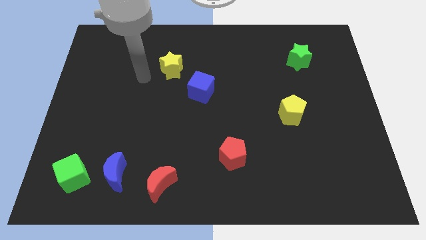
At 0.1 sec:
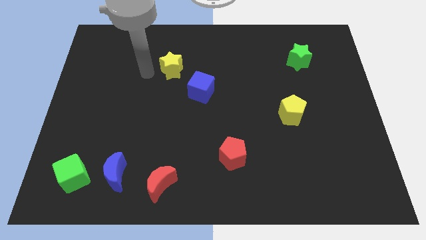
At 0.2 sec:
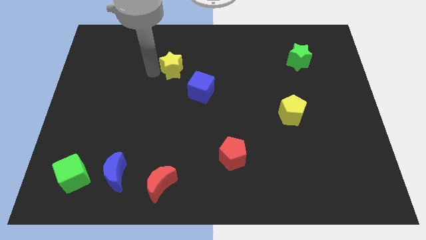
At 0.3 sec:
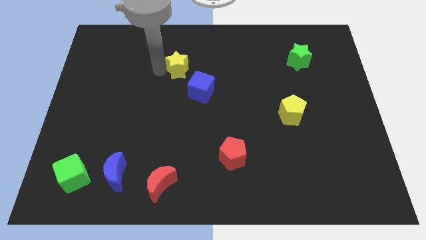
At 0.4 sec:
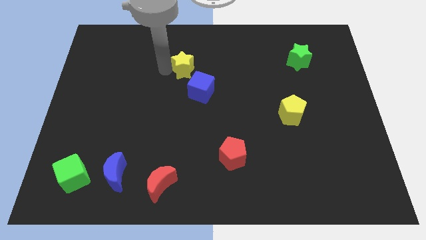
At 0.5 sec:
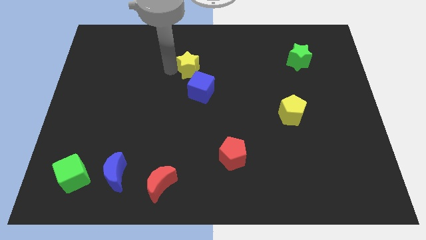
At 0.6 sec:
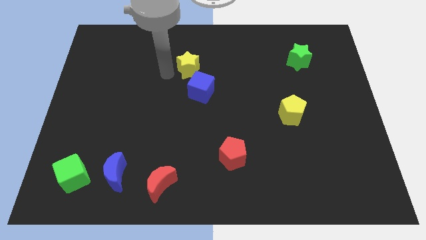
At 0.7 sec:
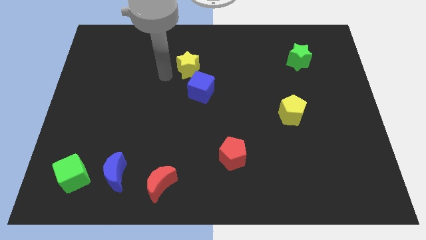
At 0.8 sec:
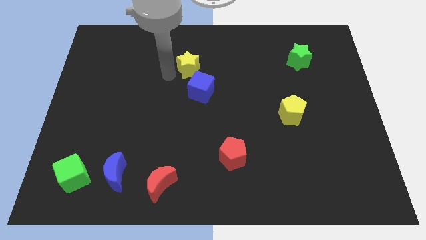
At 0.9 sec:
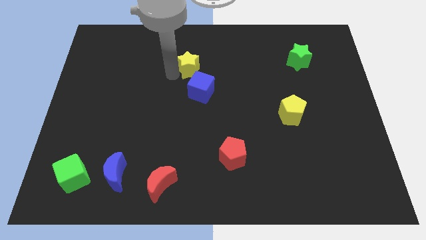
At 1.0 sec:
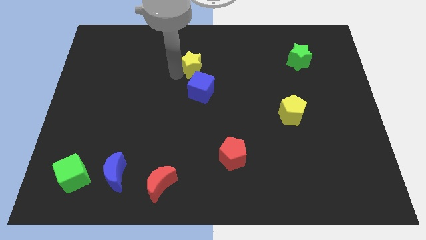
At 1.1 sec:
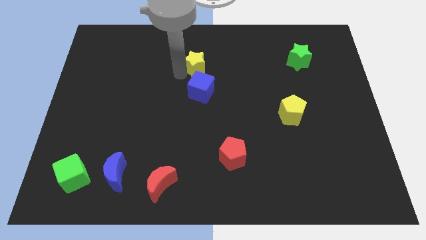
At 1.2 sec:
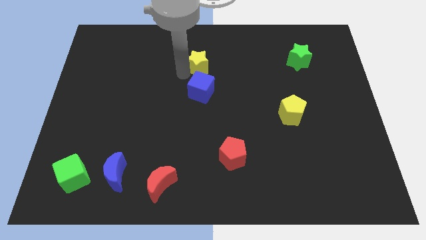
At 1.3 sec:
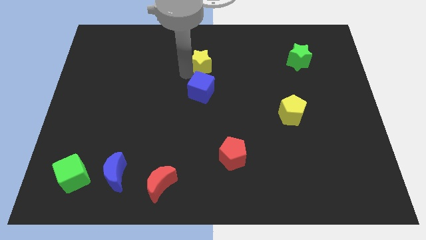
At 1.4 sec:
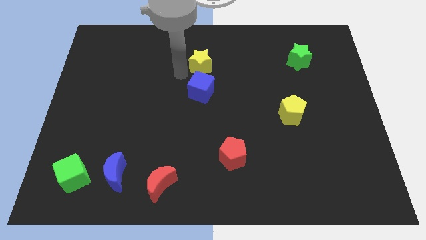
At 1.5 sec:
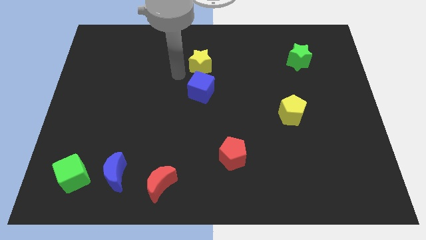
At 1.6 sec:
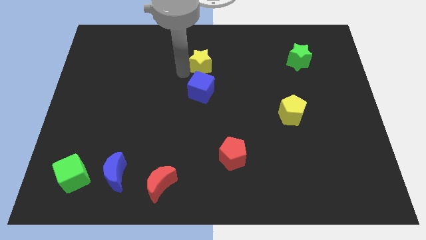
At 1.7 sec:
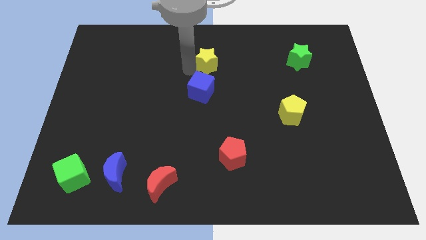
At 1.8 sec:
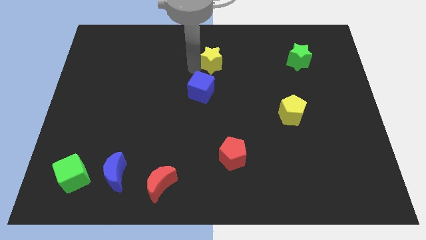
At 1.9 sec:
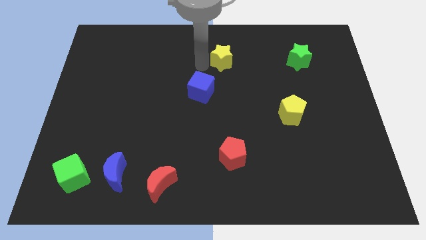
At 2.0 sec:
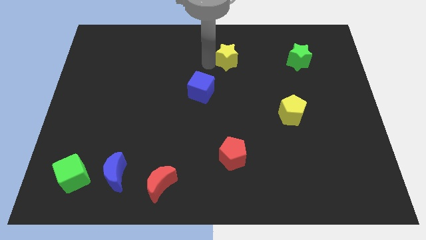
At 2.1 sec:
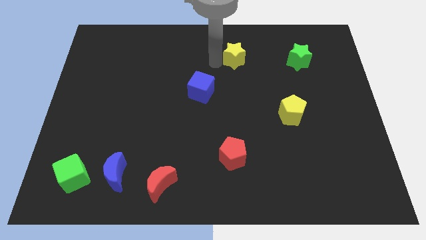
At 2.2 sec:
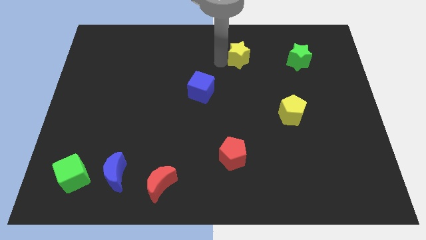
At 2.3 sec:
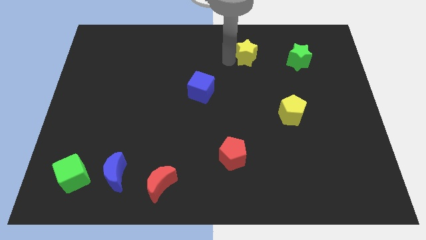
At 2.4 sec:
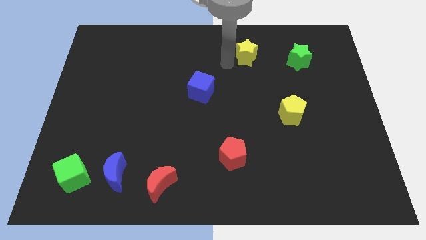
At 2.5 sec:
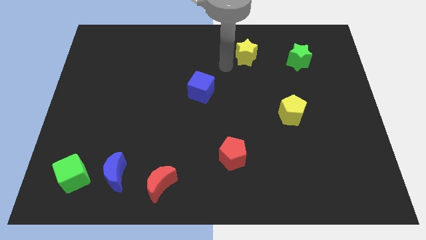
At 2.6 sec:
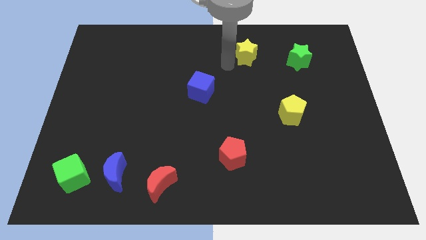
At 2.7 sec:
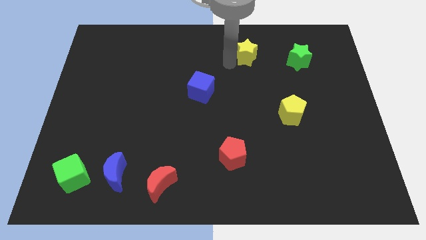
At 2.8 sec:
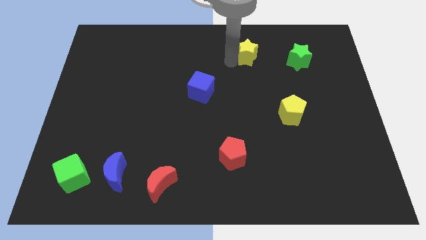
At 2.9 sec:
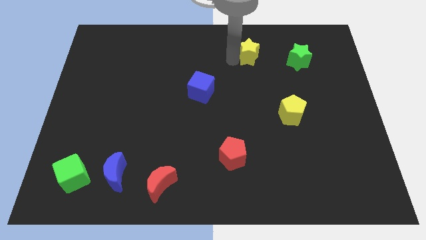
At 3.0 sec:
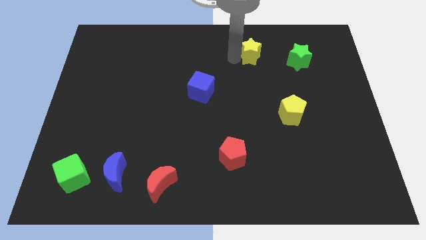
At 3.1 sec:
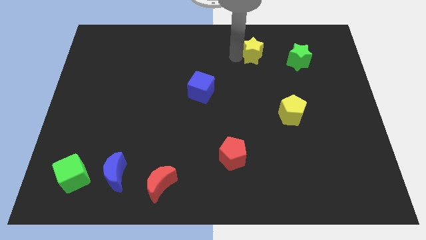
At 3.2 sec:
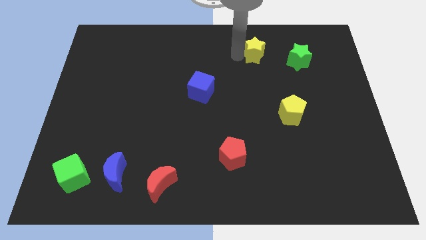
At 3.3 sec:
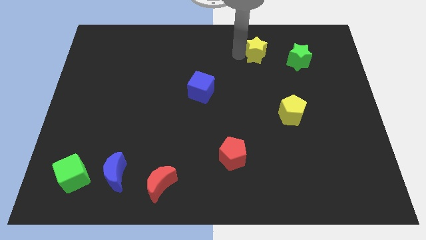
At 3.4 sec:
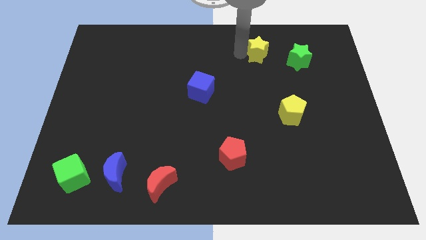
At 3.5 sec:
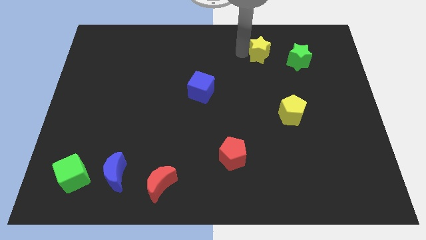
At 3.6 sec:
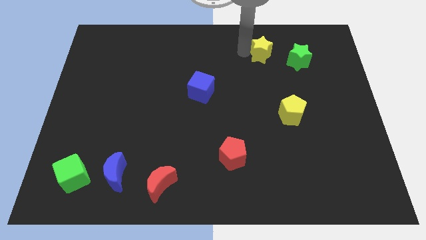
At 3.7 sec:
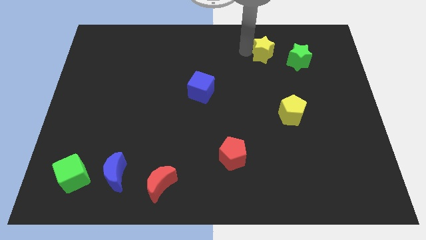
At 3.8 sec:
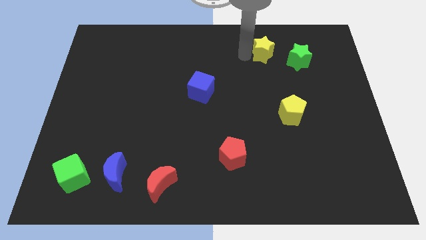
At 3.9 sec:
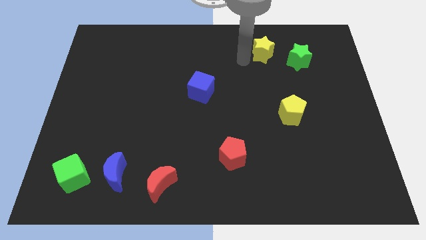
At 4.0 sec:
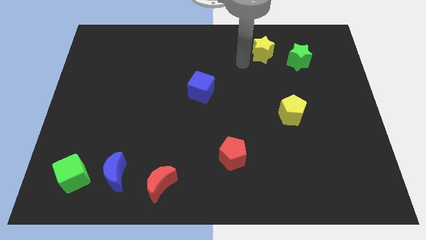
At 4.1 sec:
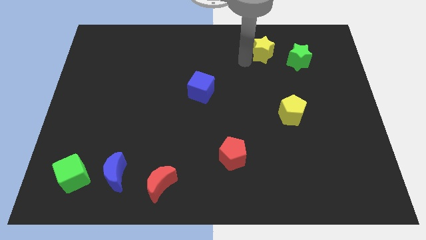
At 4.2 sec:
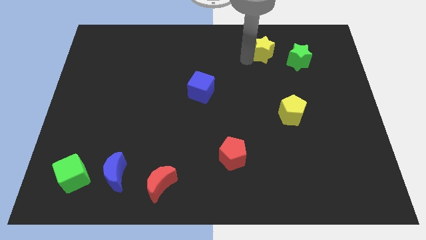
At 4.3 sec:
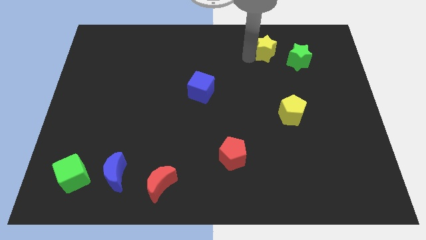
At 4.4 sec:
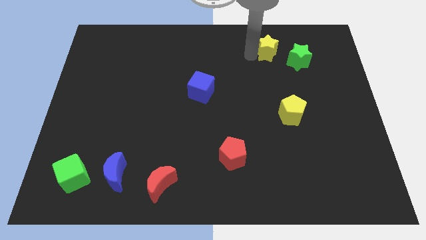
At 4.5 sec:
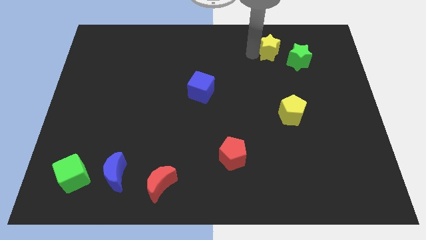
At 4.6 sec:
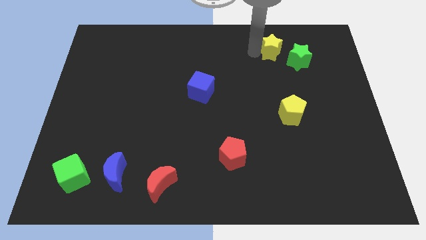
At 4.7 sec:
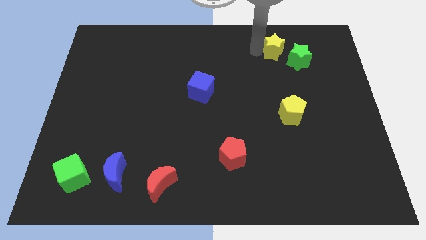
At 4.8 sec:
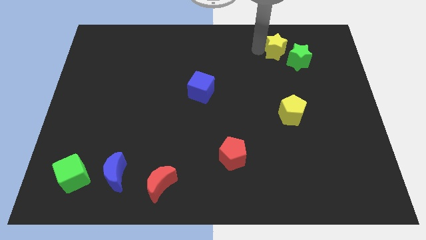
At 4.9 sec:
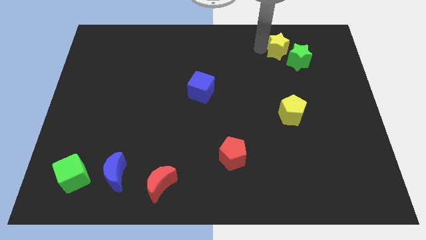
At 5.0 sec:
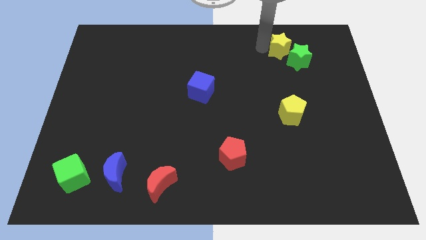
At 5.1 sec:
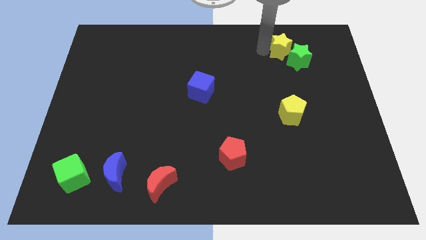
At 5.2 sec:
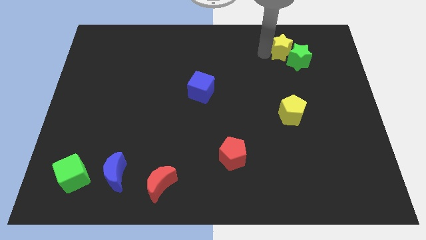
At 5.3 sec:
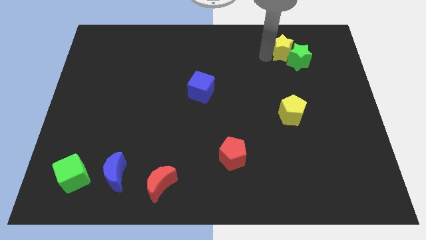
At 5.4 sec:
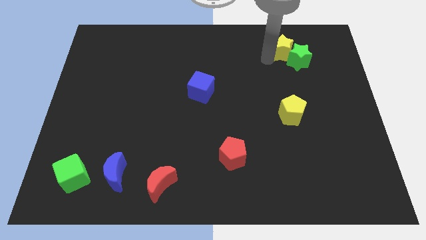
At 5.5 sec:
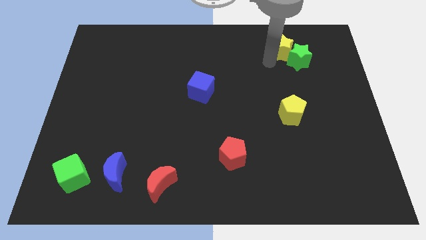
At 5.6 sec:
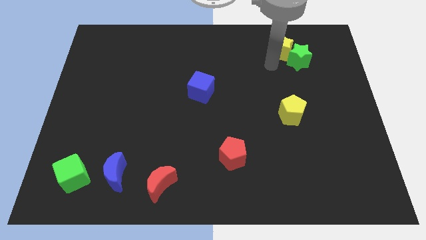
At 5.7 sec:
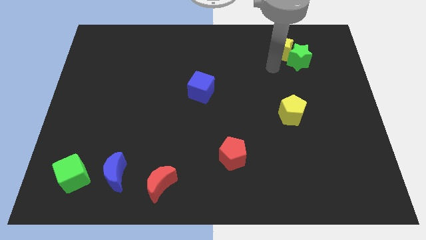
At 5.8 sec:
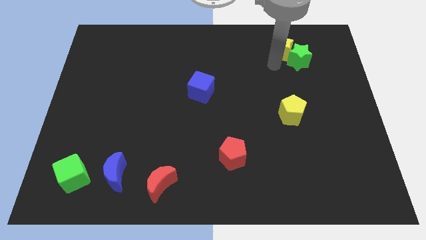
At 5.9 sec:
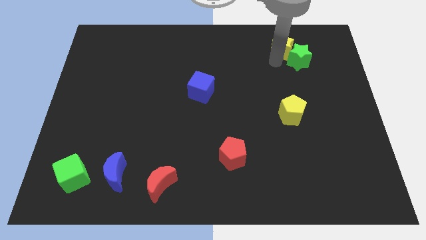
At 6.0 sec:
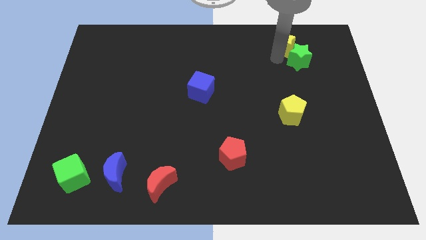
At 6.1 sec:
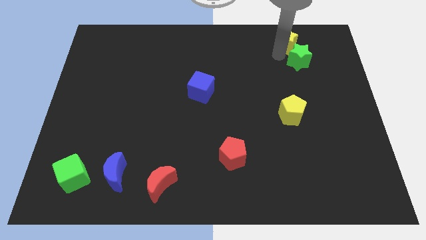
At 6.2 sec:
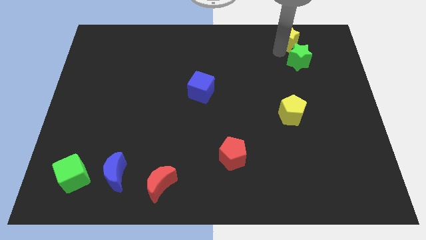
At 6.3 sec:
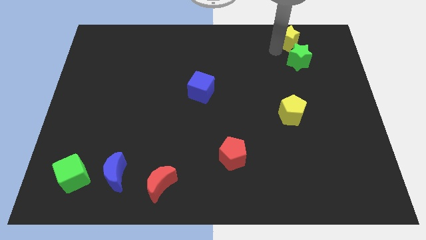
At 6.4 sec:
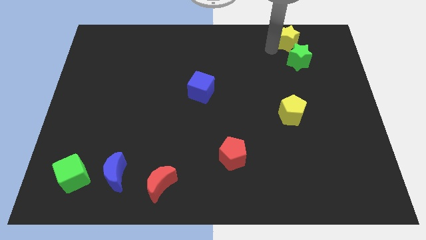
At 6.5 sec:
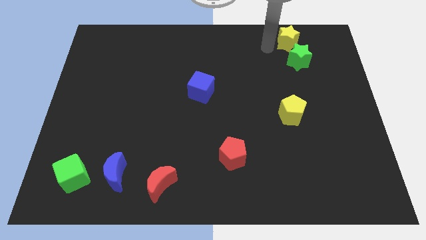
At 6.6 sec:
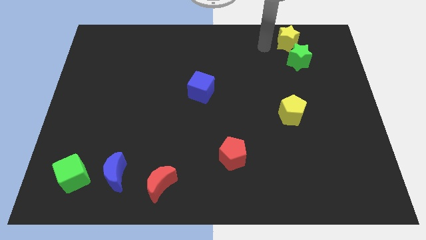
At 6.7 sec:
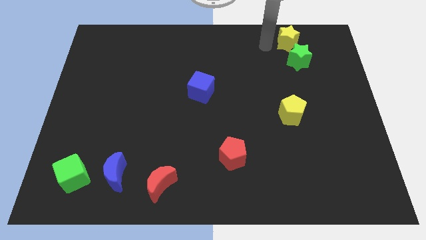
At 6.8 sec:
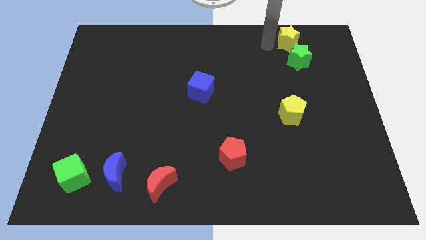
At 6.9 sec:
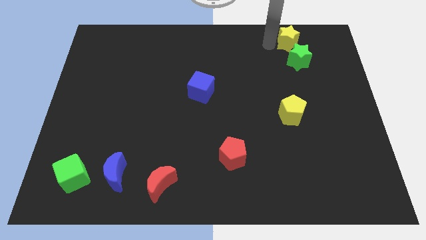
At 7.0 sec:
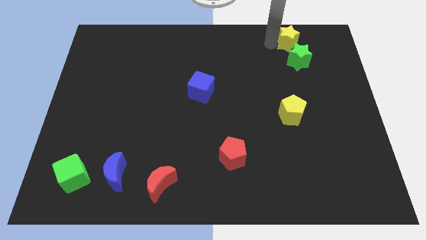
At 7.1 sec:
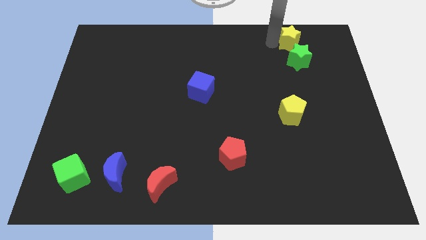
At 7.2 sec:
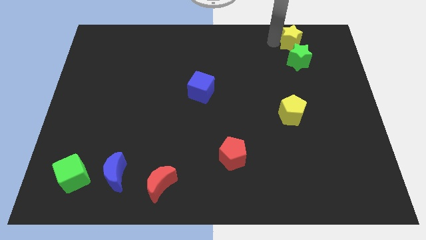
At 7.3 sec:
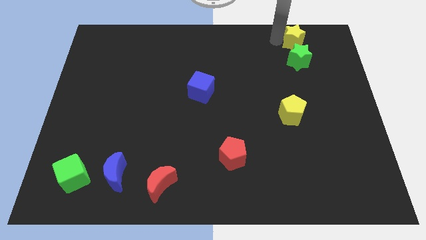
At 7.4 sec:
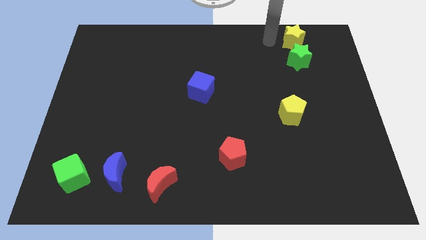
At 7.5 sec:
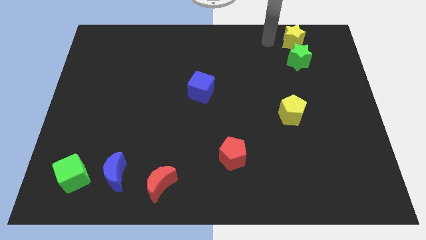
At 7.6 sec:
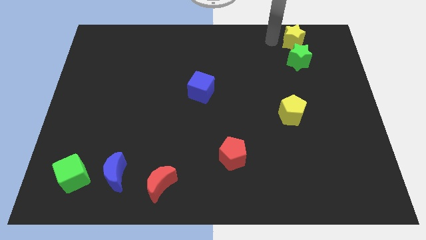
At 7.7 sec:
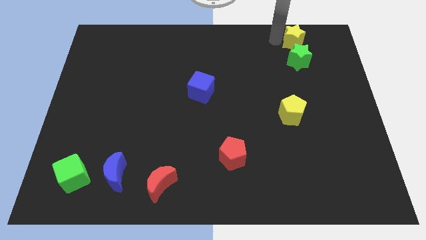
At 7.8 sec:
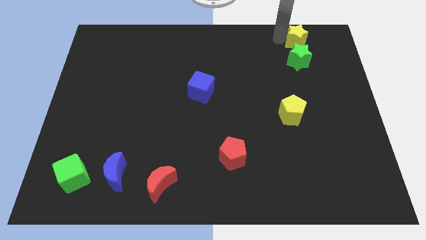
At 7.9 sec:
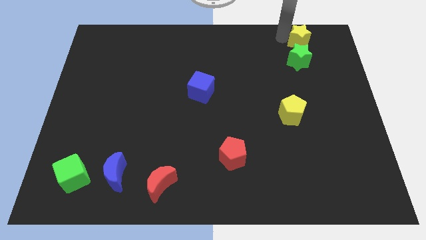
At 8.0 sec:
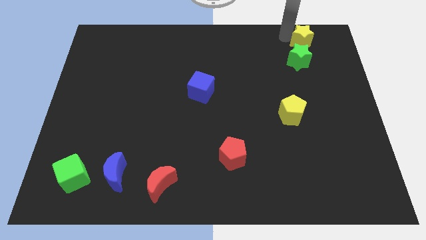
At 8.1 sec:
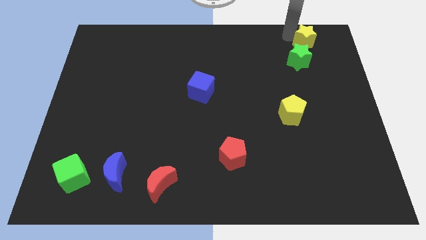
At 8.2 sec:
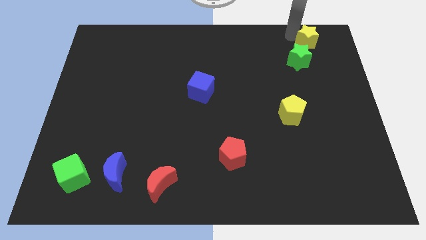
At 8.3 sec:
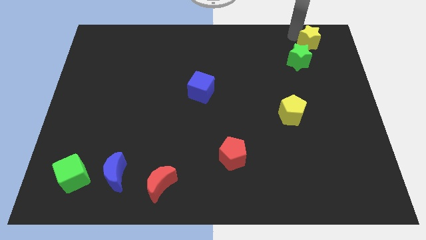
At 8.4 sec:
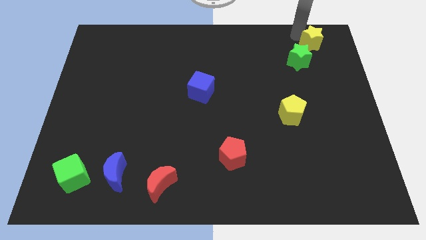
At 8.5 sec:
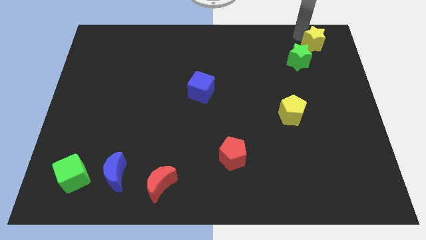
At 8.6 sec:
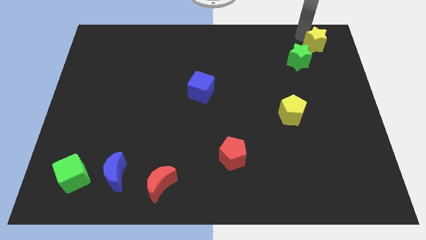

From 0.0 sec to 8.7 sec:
slide the yellow star to the top right corner
